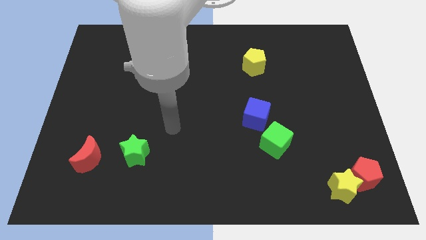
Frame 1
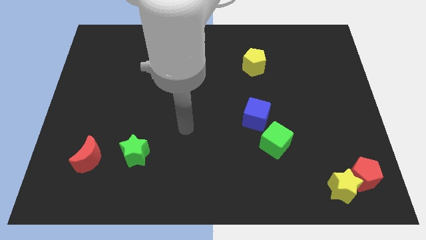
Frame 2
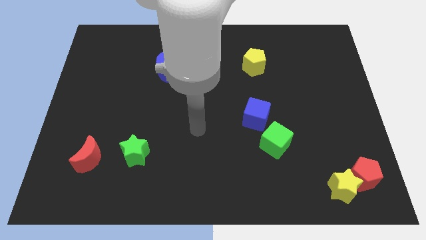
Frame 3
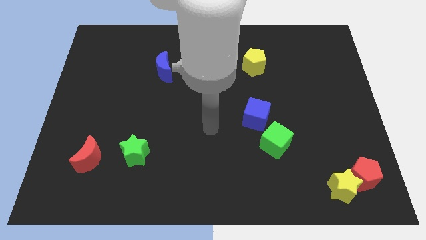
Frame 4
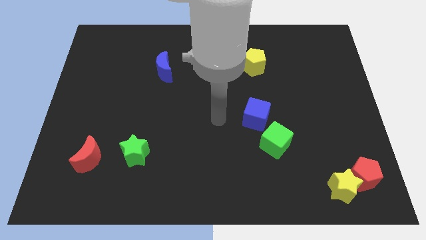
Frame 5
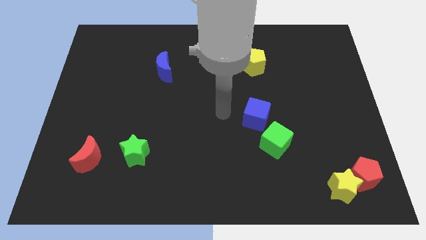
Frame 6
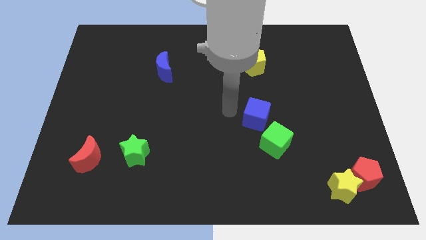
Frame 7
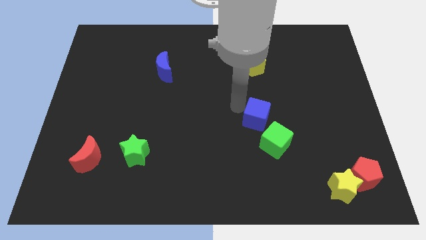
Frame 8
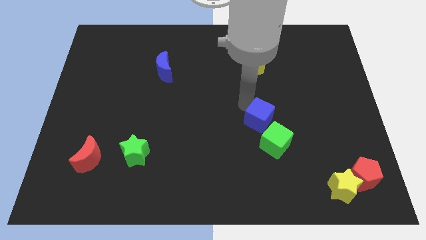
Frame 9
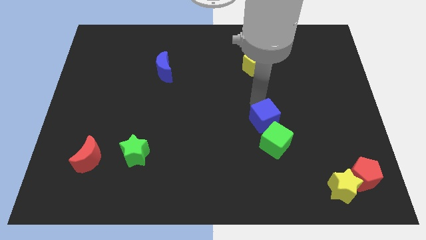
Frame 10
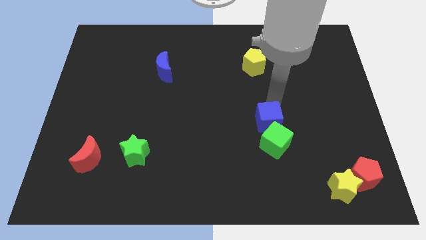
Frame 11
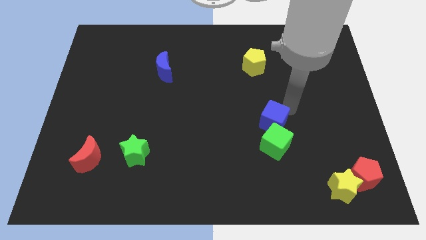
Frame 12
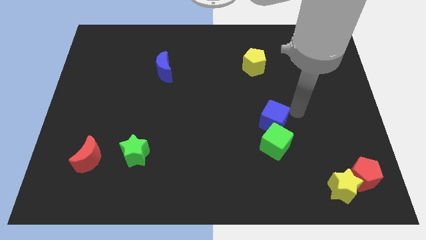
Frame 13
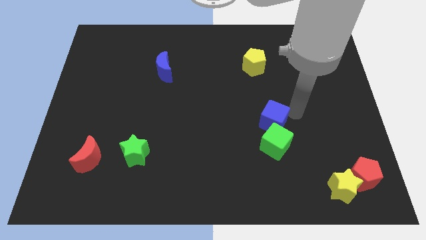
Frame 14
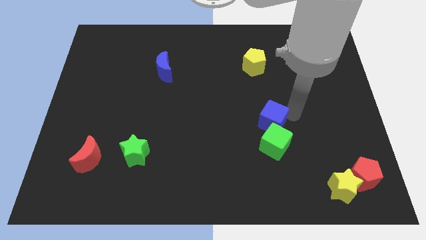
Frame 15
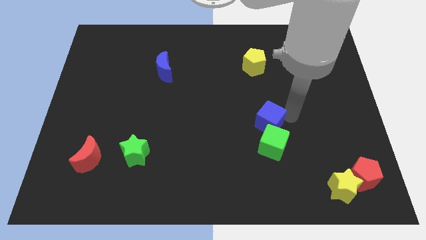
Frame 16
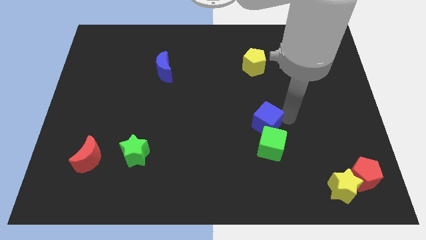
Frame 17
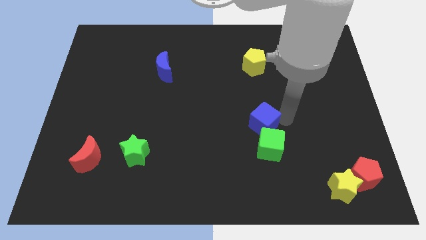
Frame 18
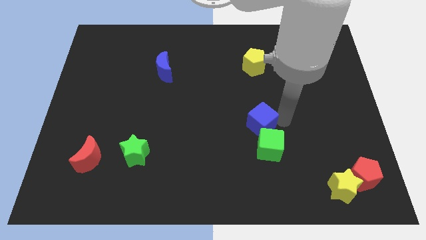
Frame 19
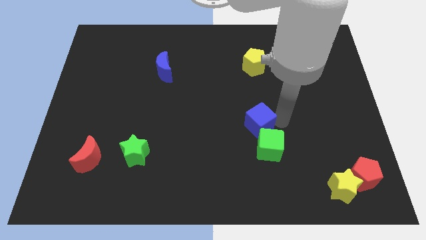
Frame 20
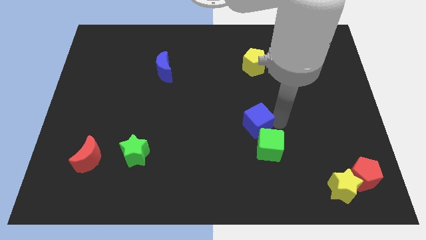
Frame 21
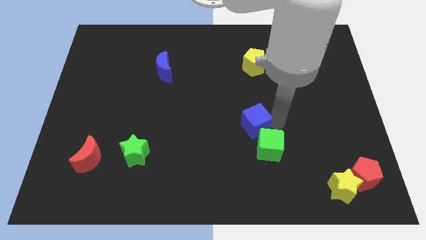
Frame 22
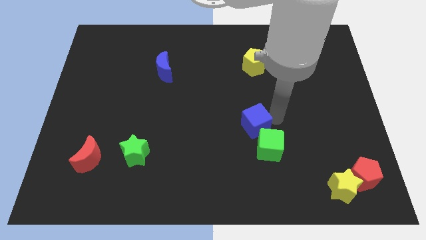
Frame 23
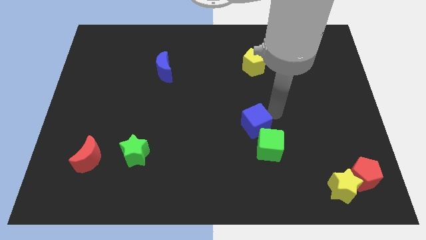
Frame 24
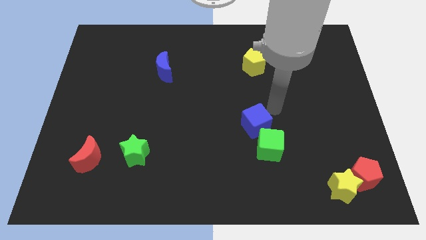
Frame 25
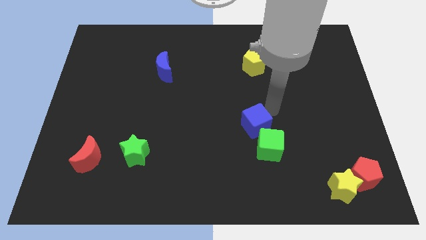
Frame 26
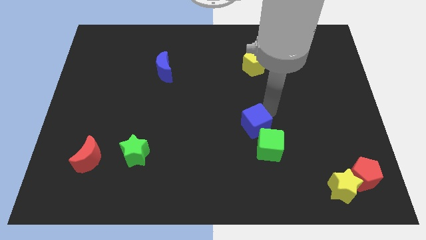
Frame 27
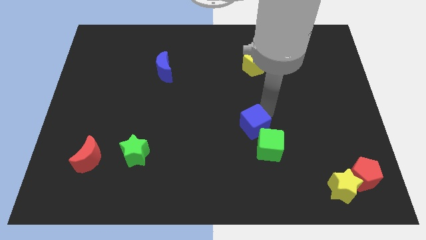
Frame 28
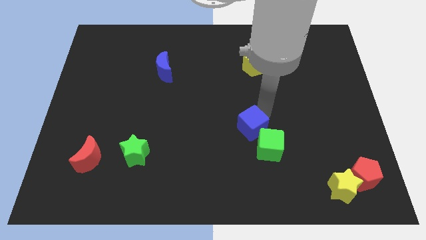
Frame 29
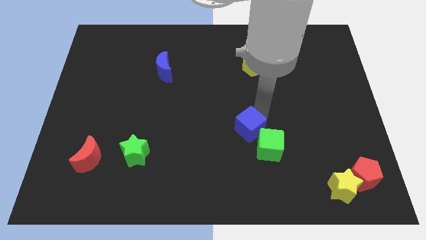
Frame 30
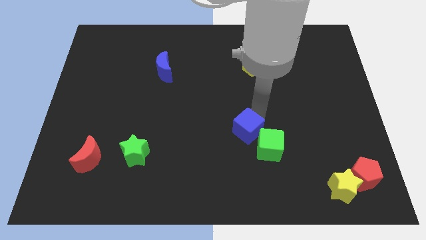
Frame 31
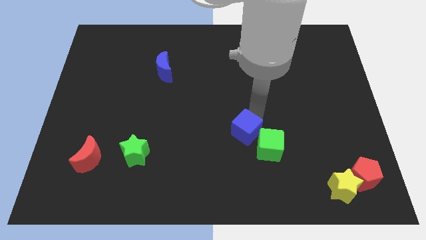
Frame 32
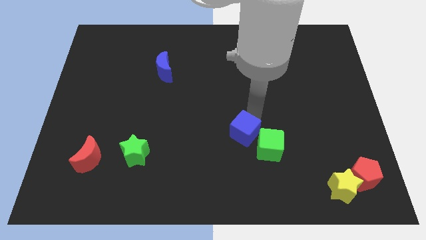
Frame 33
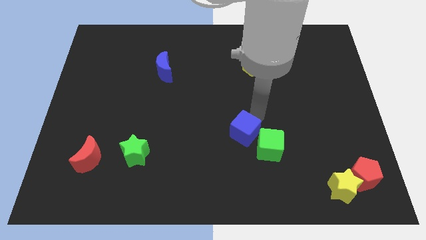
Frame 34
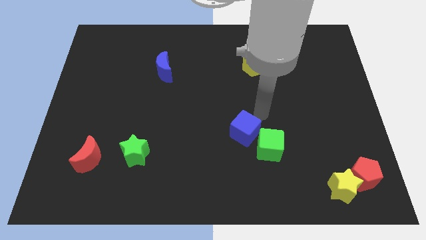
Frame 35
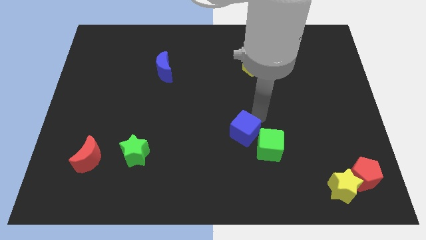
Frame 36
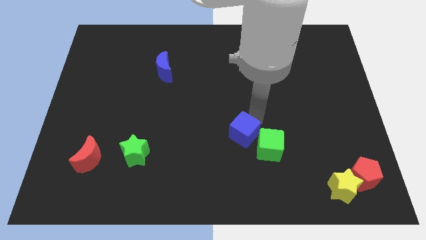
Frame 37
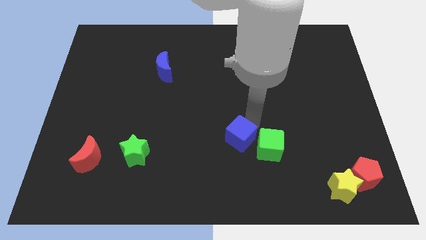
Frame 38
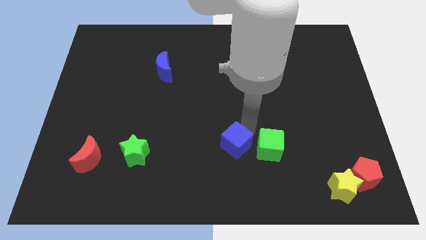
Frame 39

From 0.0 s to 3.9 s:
slide the blue cube downwards and then to the left somewhat

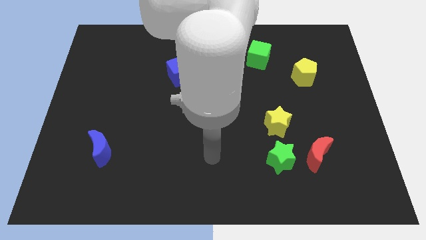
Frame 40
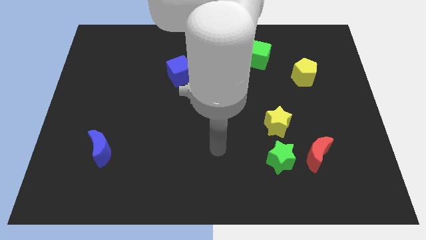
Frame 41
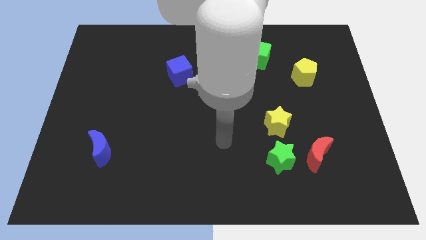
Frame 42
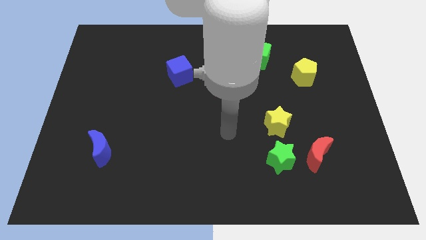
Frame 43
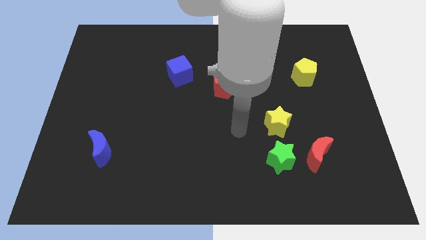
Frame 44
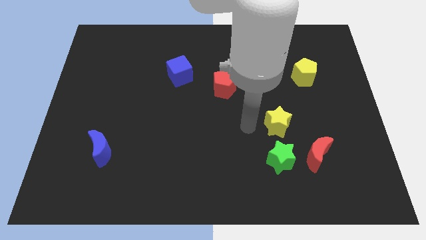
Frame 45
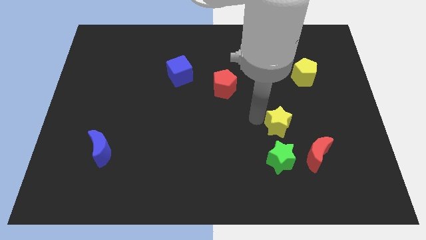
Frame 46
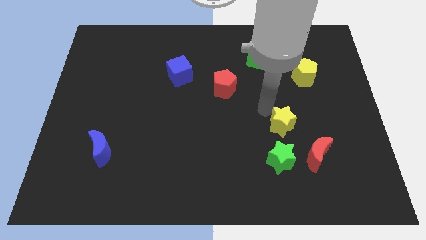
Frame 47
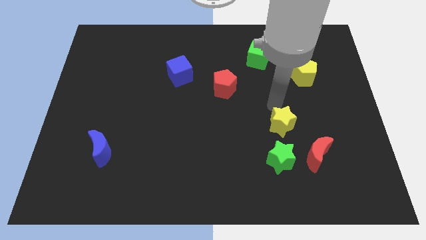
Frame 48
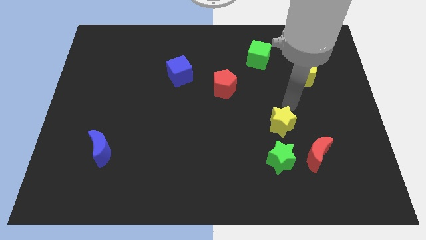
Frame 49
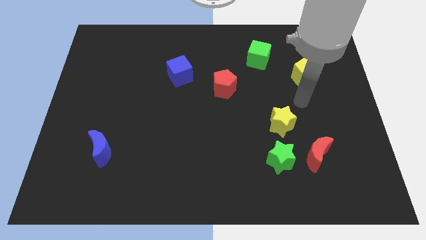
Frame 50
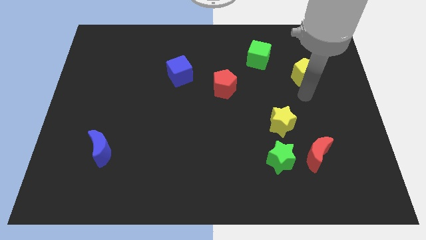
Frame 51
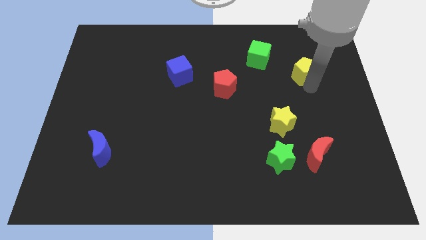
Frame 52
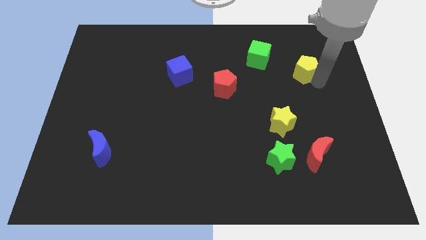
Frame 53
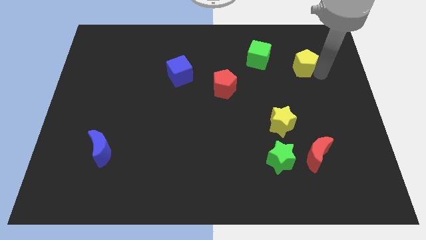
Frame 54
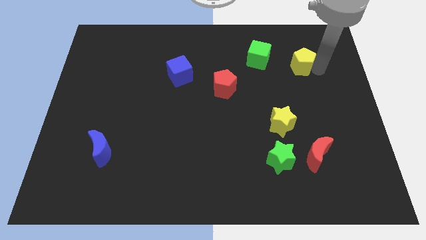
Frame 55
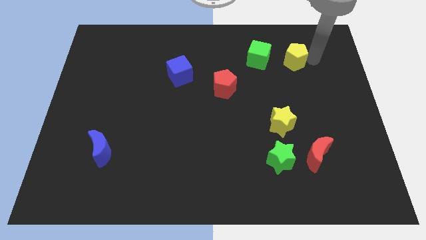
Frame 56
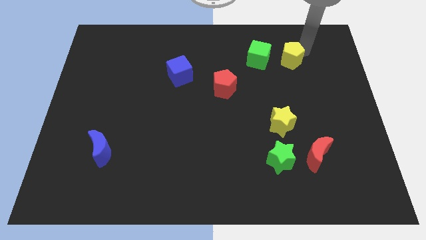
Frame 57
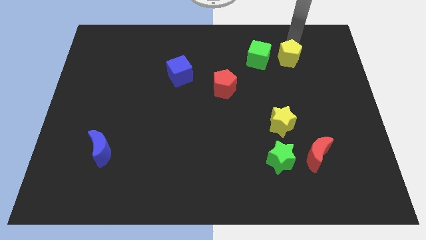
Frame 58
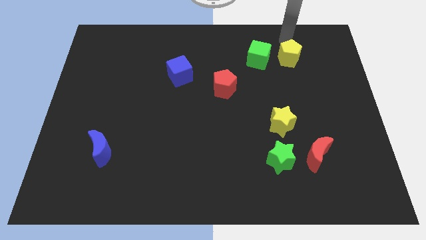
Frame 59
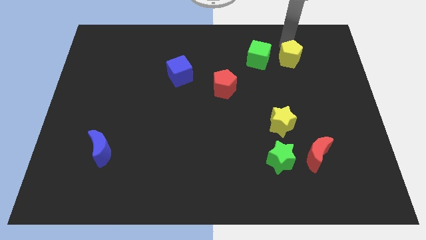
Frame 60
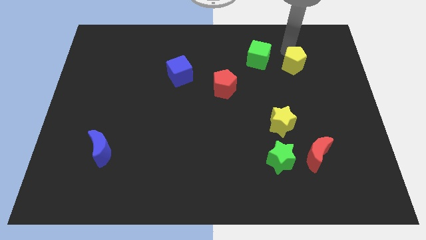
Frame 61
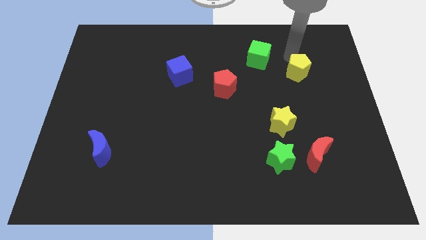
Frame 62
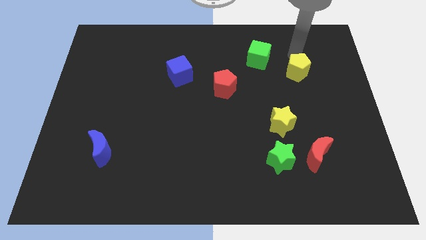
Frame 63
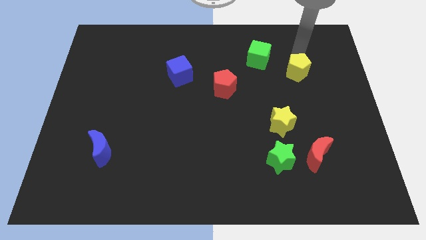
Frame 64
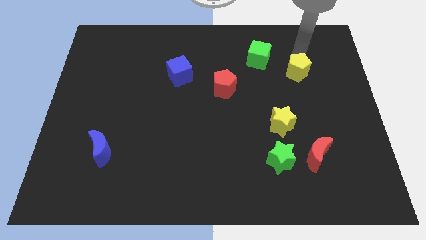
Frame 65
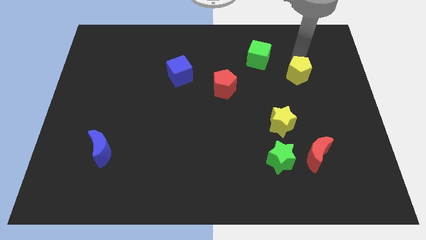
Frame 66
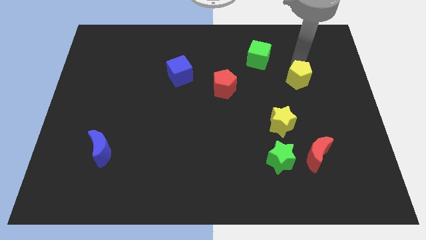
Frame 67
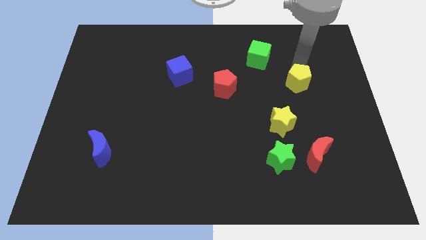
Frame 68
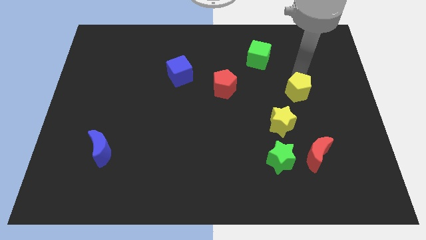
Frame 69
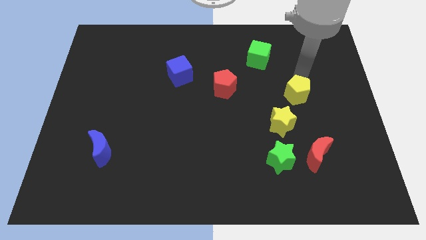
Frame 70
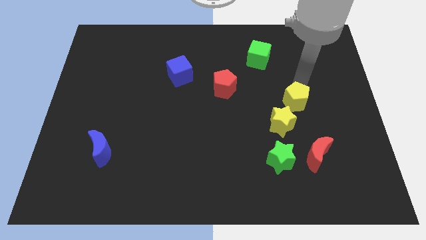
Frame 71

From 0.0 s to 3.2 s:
move the yellow pentagon down and left a bit

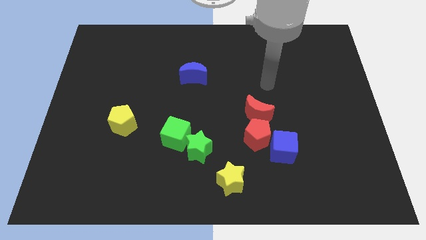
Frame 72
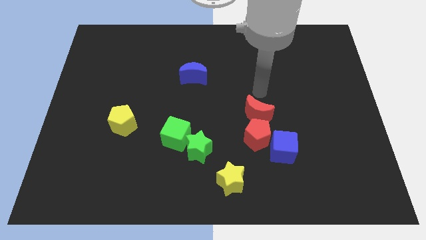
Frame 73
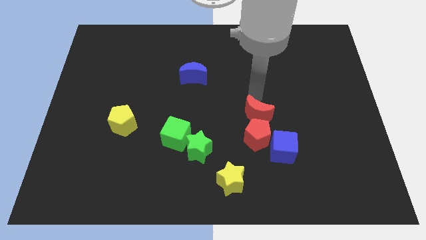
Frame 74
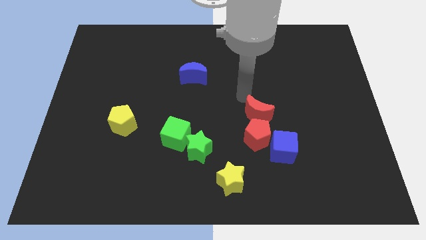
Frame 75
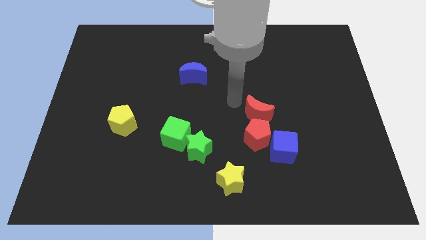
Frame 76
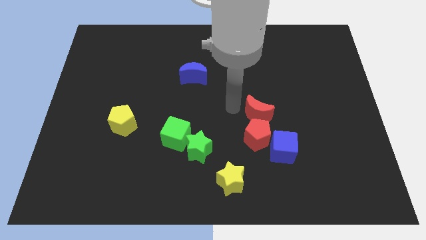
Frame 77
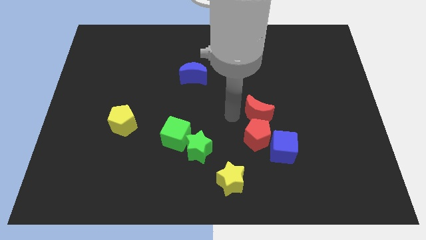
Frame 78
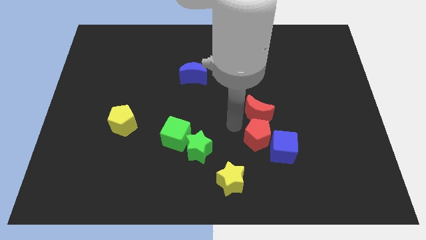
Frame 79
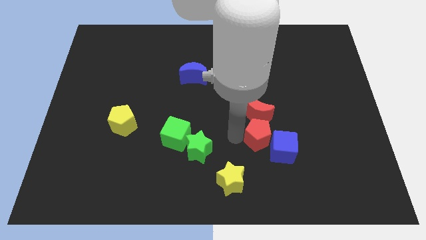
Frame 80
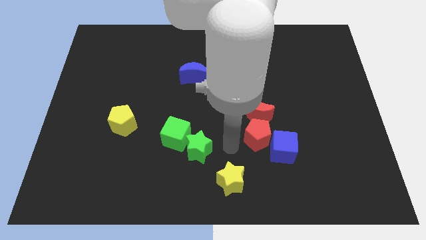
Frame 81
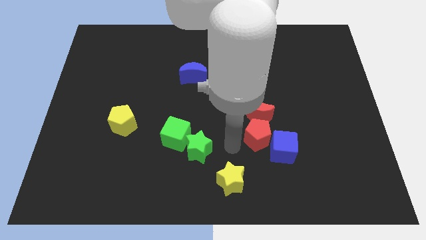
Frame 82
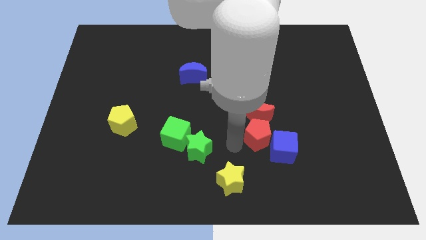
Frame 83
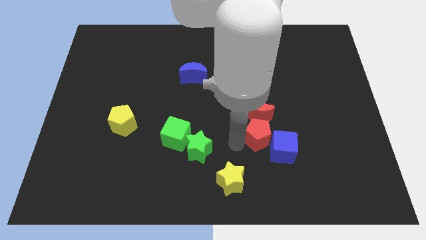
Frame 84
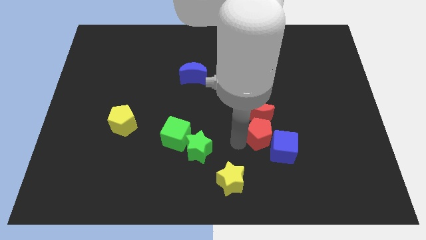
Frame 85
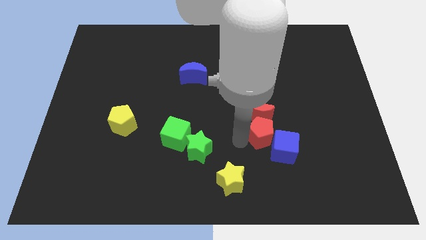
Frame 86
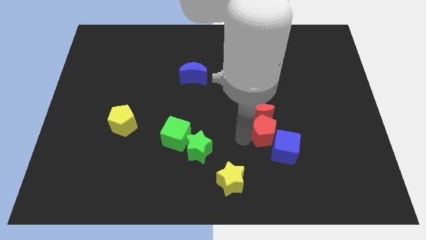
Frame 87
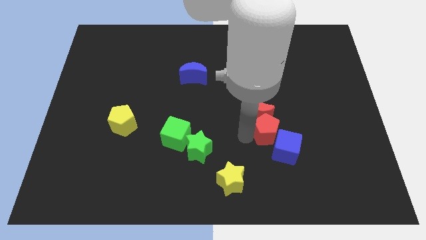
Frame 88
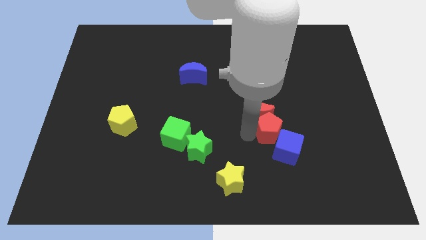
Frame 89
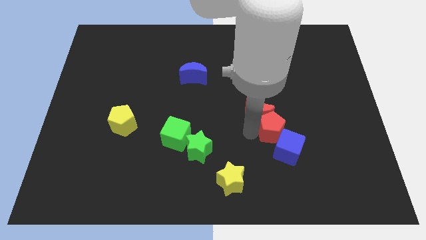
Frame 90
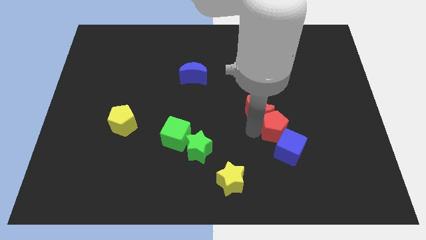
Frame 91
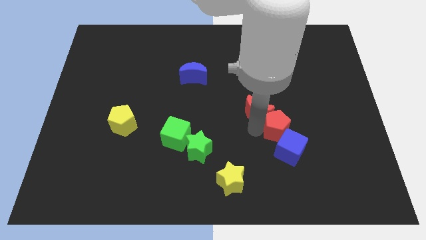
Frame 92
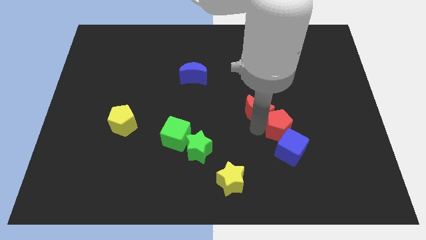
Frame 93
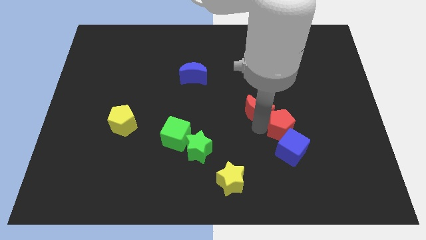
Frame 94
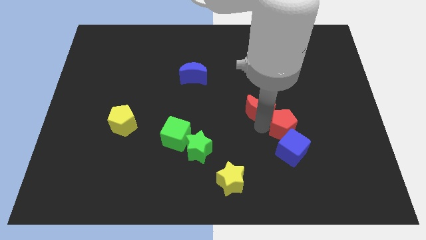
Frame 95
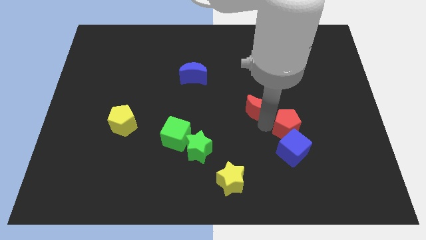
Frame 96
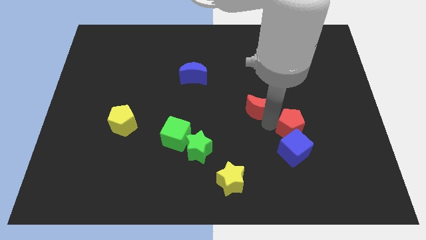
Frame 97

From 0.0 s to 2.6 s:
move the red pentagon slightly to the right
